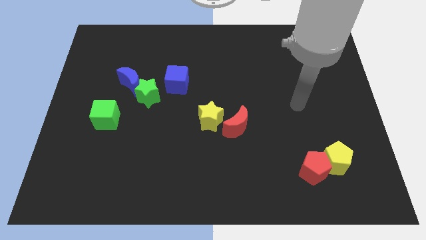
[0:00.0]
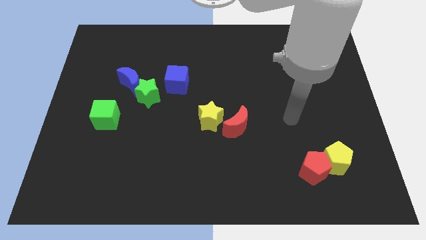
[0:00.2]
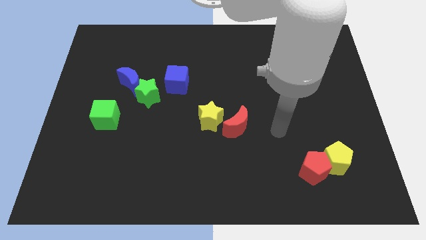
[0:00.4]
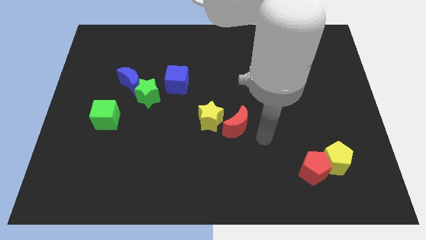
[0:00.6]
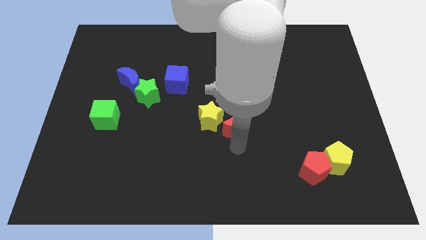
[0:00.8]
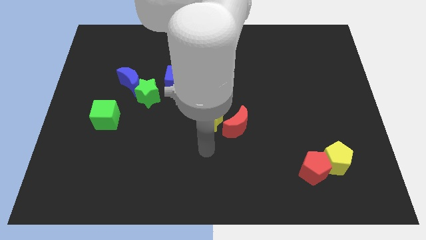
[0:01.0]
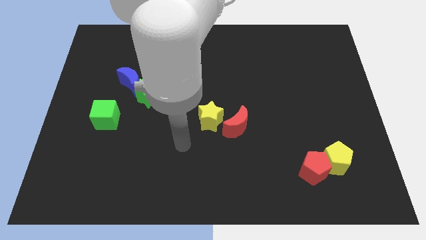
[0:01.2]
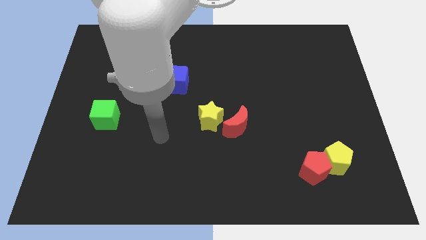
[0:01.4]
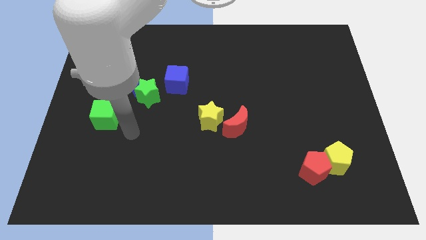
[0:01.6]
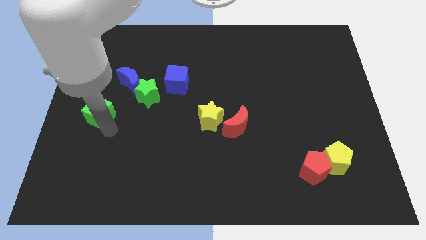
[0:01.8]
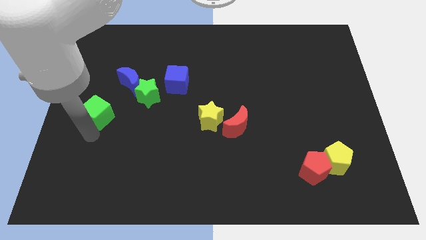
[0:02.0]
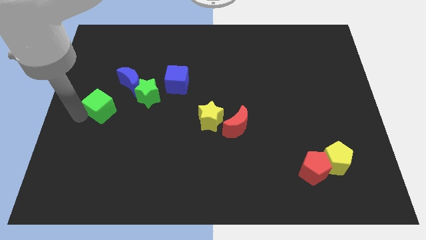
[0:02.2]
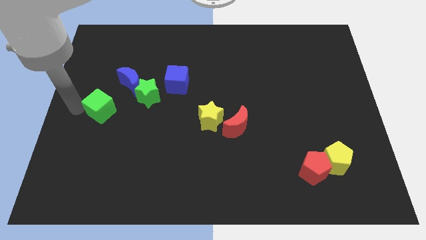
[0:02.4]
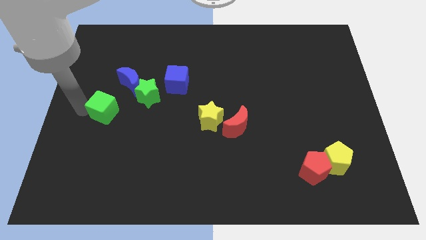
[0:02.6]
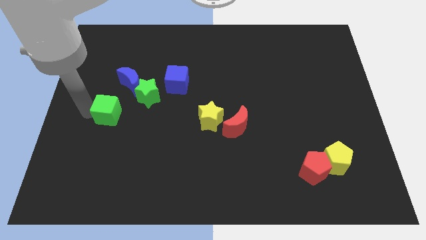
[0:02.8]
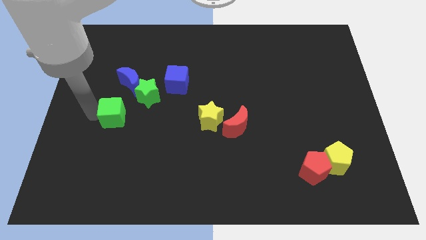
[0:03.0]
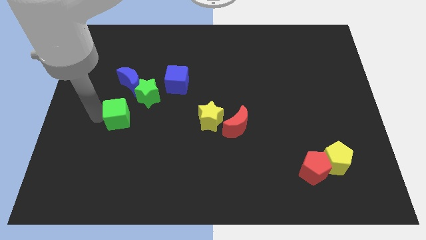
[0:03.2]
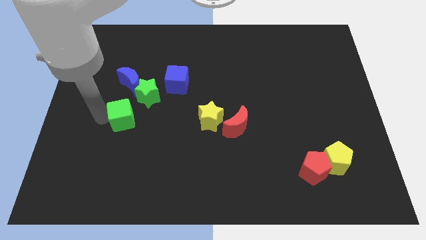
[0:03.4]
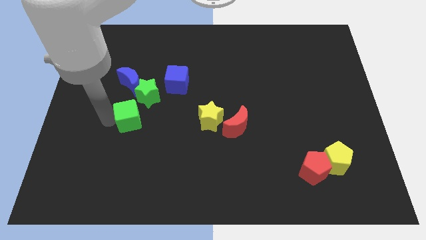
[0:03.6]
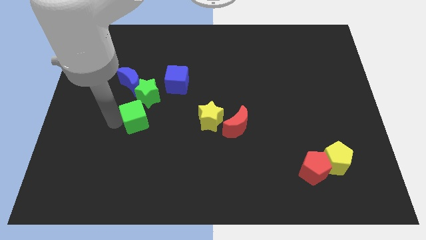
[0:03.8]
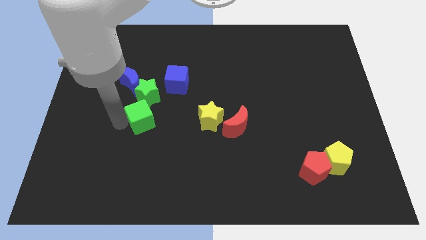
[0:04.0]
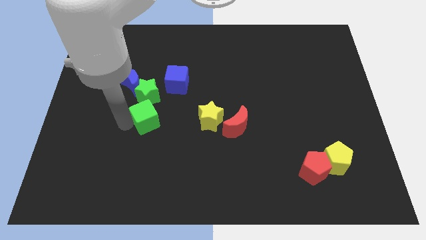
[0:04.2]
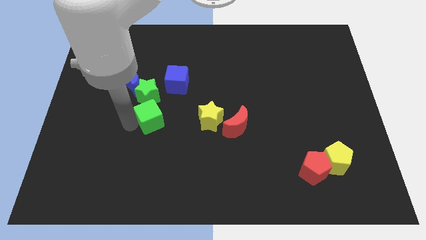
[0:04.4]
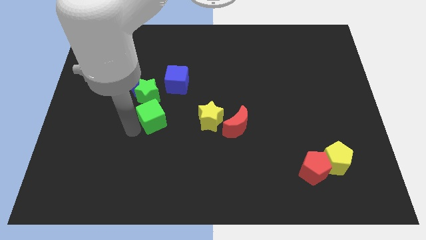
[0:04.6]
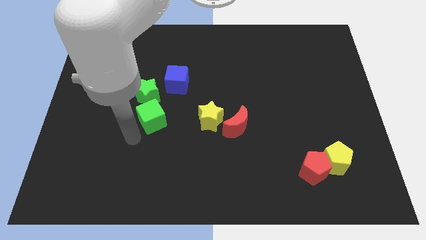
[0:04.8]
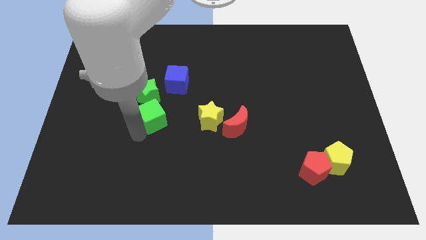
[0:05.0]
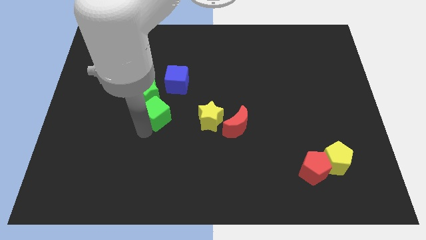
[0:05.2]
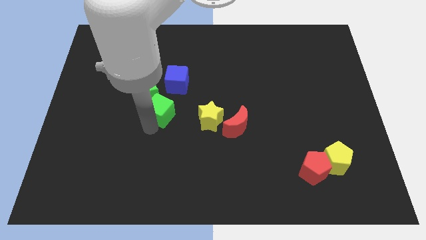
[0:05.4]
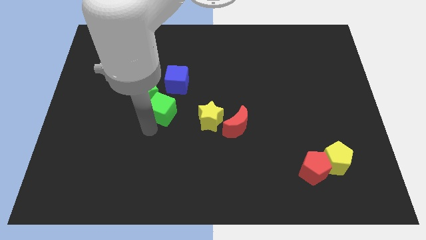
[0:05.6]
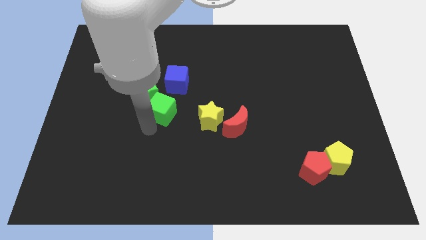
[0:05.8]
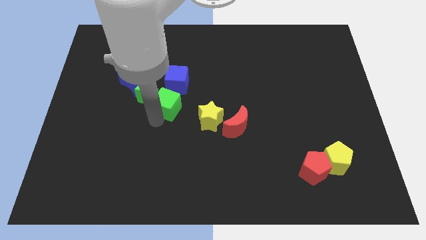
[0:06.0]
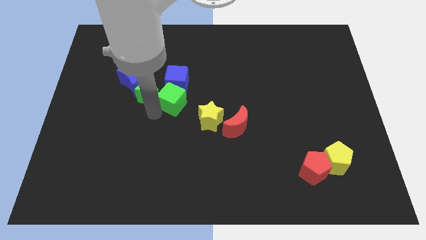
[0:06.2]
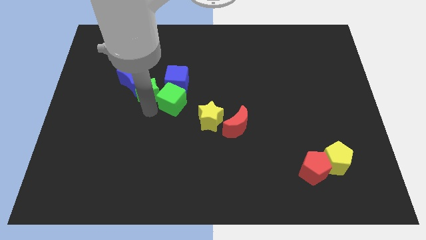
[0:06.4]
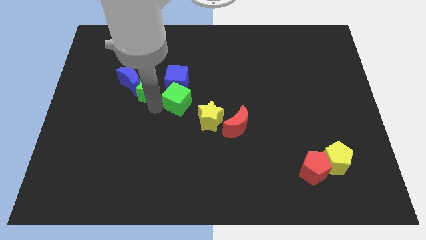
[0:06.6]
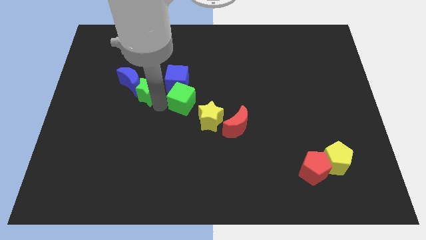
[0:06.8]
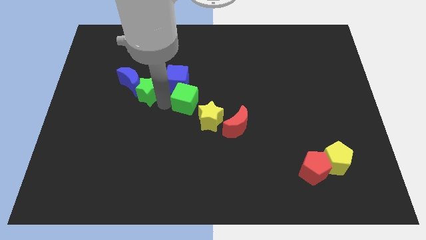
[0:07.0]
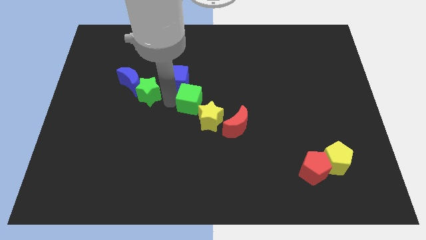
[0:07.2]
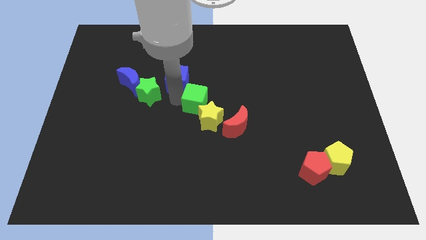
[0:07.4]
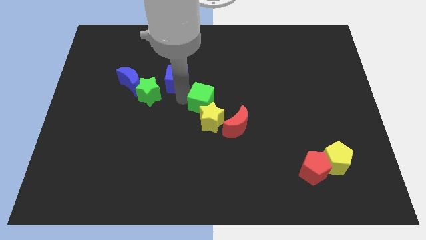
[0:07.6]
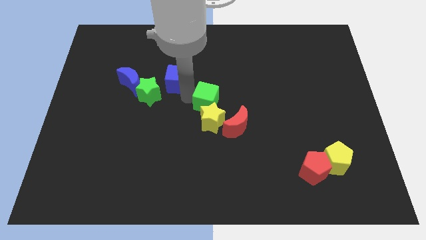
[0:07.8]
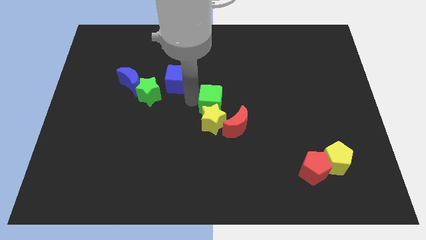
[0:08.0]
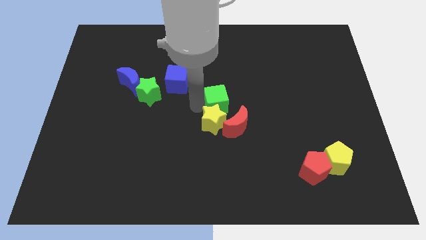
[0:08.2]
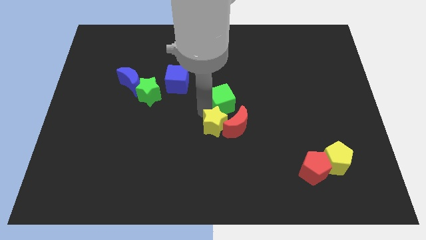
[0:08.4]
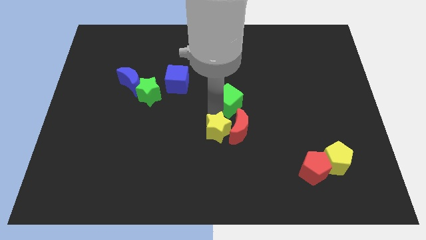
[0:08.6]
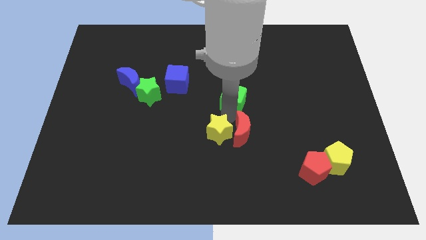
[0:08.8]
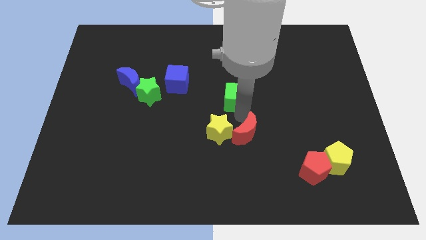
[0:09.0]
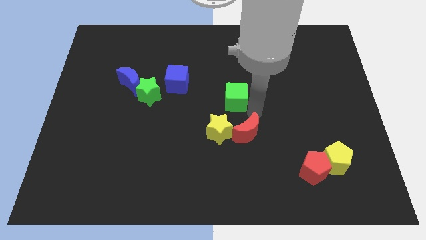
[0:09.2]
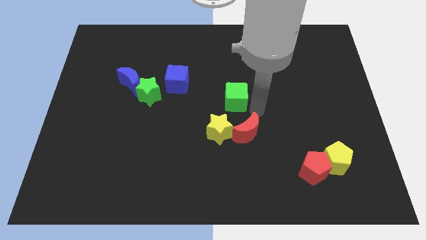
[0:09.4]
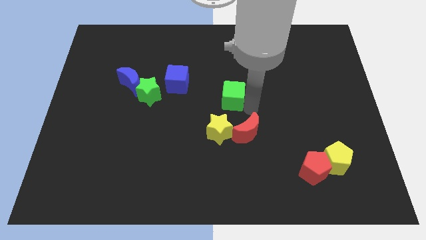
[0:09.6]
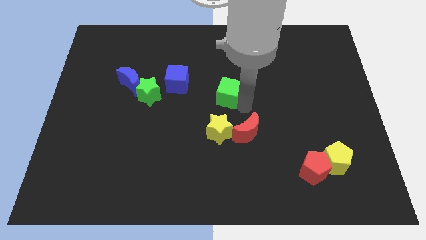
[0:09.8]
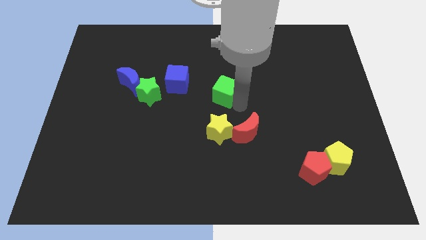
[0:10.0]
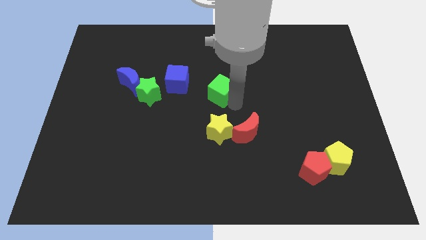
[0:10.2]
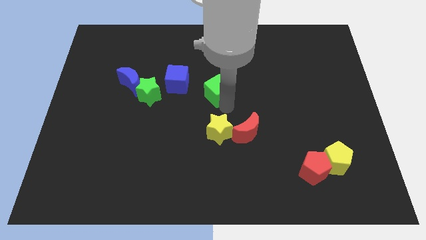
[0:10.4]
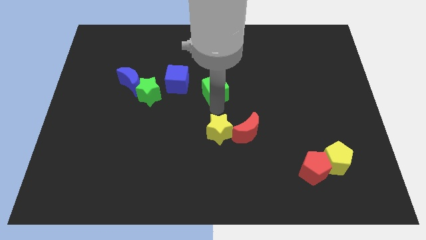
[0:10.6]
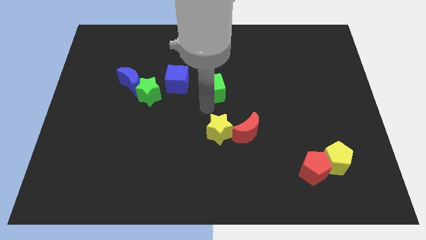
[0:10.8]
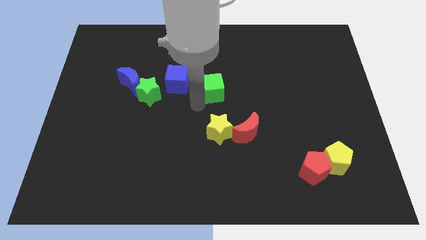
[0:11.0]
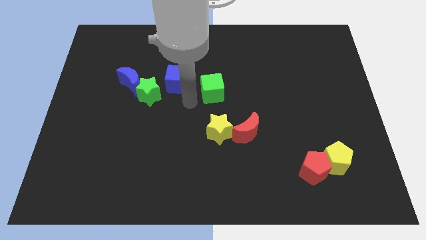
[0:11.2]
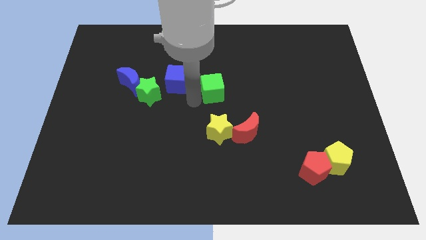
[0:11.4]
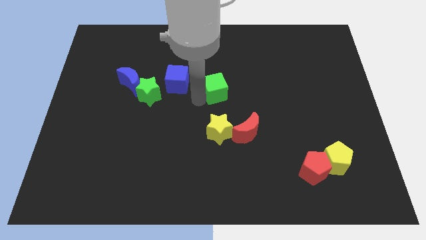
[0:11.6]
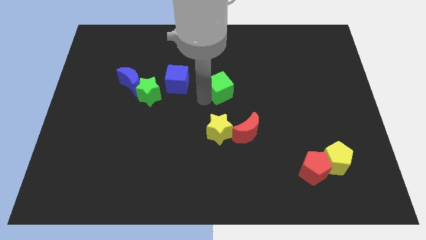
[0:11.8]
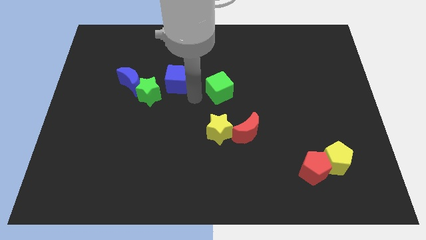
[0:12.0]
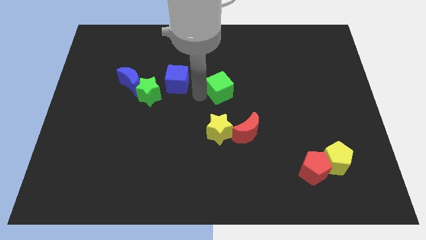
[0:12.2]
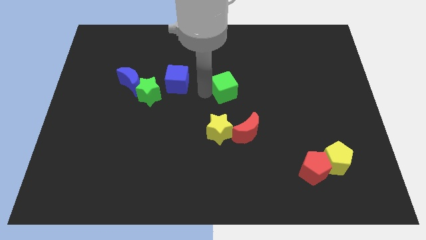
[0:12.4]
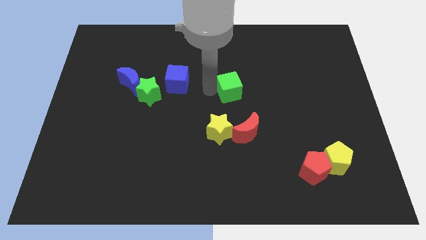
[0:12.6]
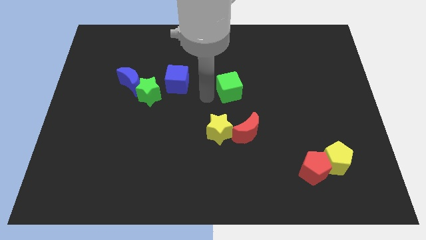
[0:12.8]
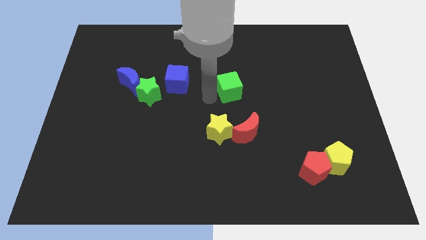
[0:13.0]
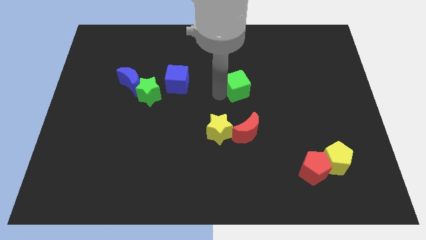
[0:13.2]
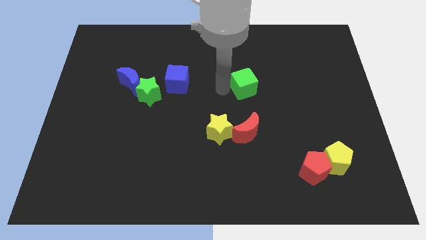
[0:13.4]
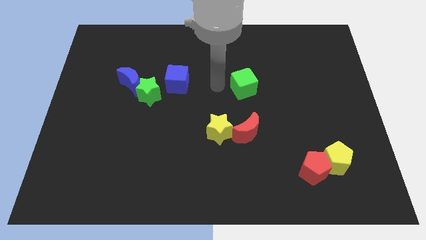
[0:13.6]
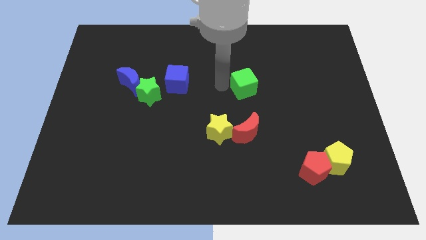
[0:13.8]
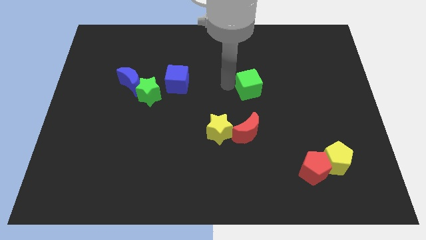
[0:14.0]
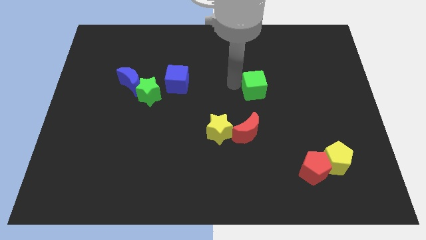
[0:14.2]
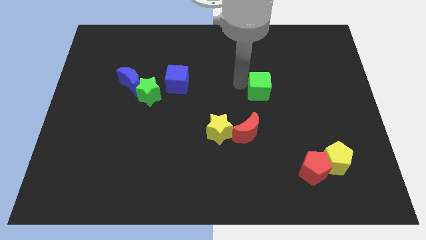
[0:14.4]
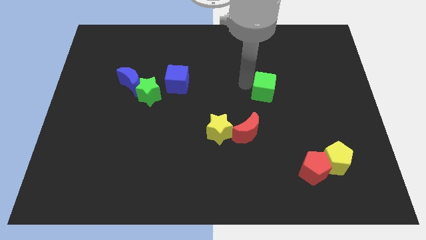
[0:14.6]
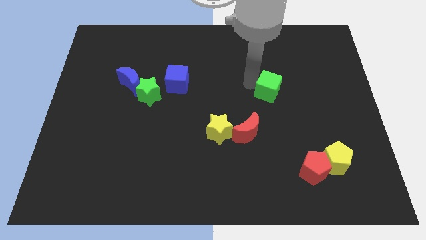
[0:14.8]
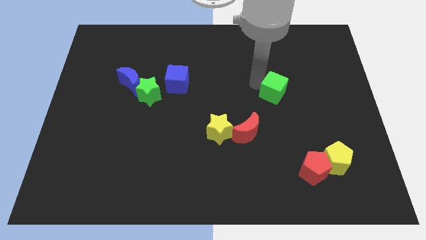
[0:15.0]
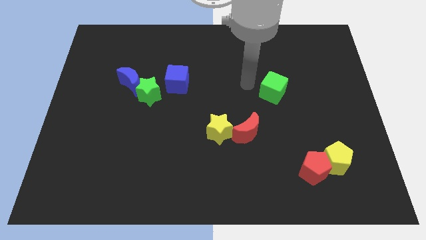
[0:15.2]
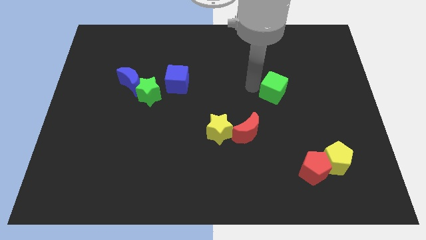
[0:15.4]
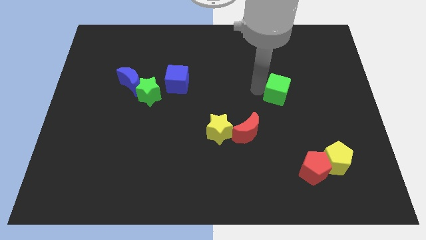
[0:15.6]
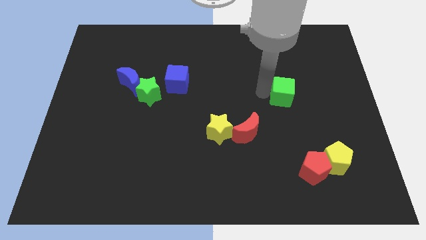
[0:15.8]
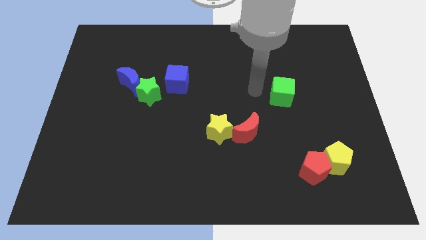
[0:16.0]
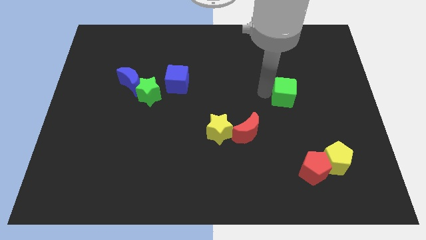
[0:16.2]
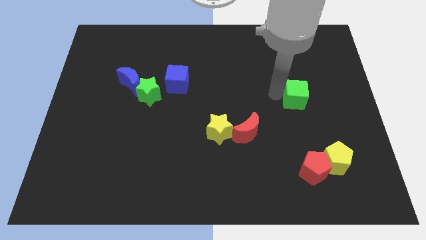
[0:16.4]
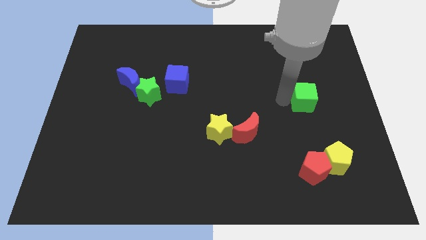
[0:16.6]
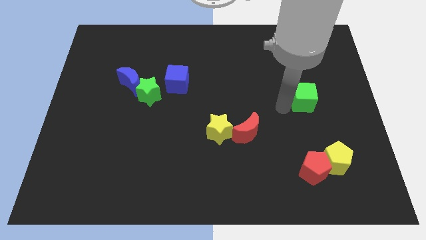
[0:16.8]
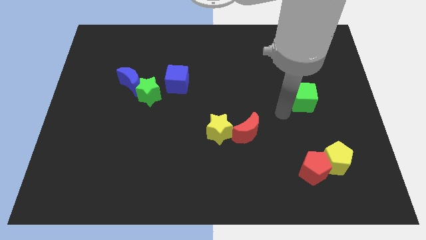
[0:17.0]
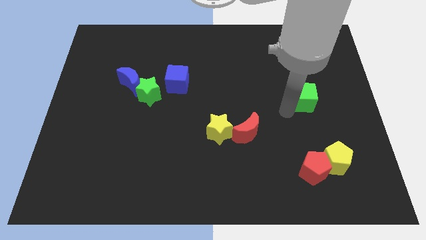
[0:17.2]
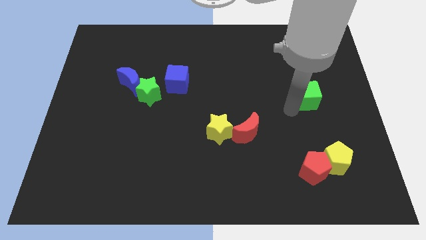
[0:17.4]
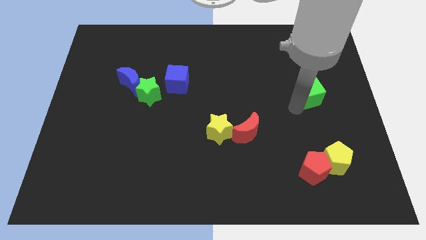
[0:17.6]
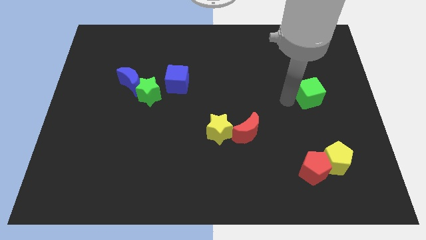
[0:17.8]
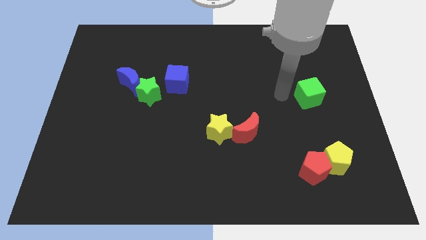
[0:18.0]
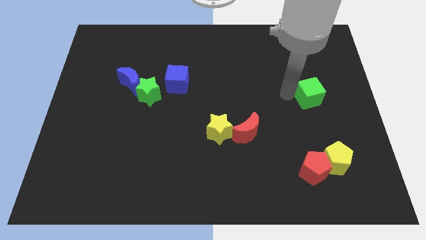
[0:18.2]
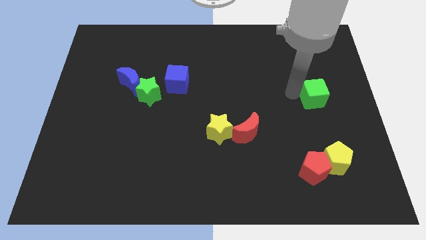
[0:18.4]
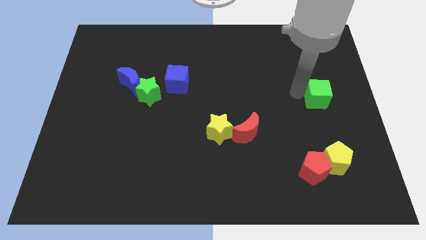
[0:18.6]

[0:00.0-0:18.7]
move the green cube to the center right
